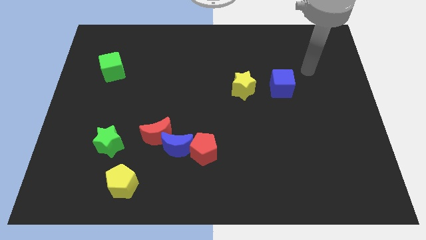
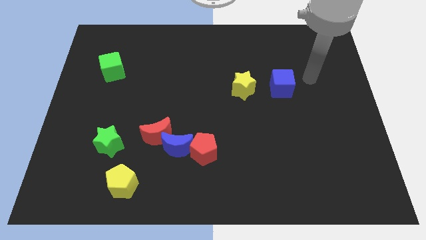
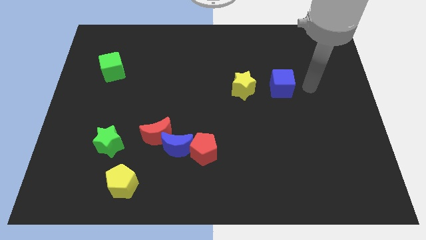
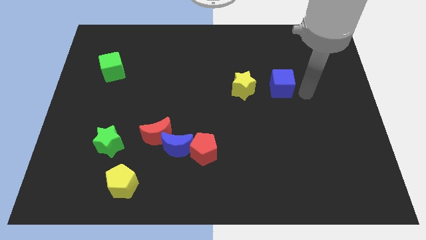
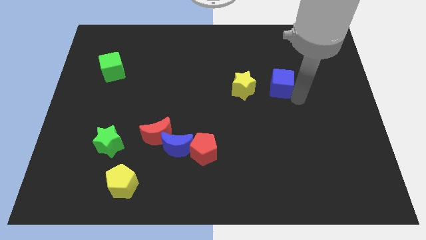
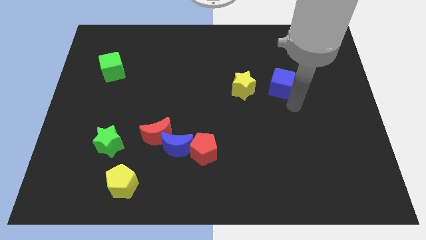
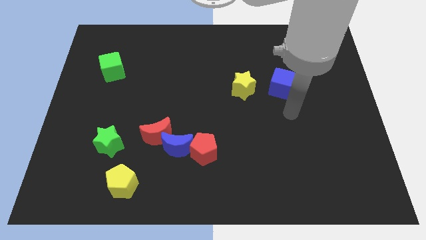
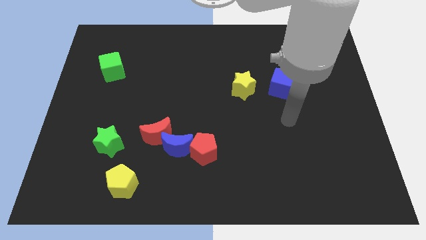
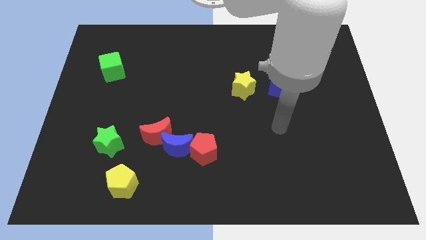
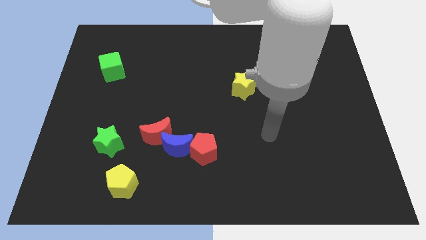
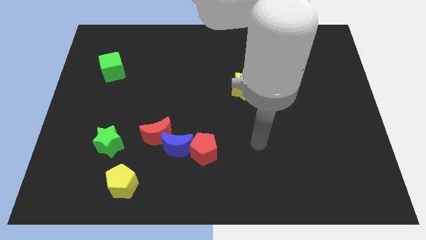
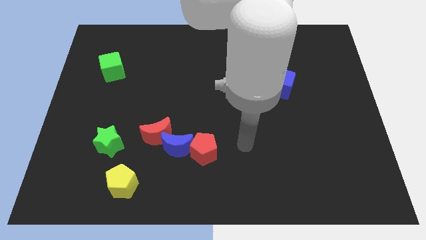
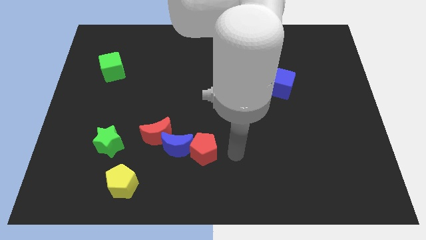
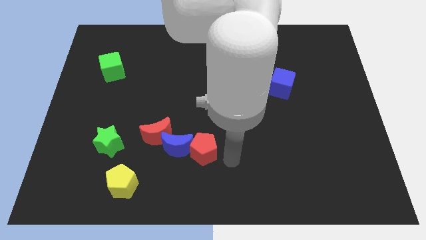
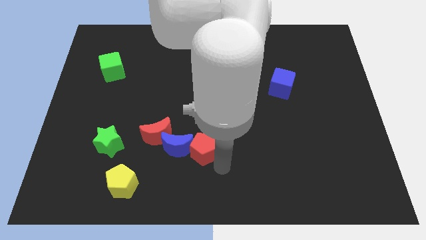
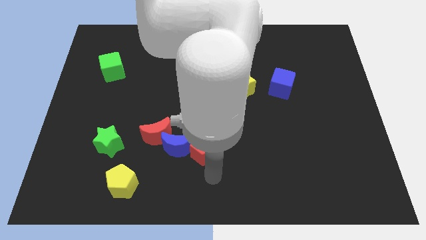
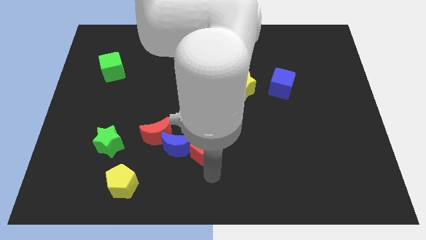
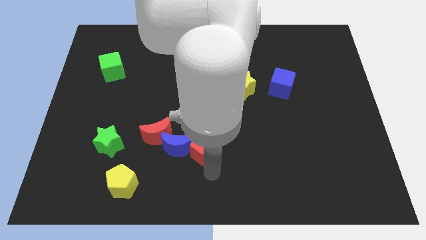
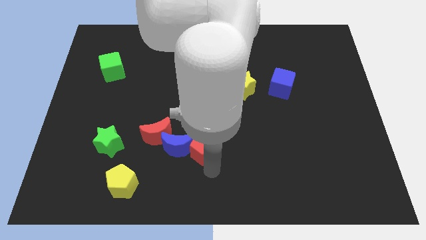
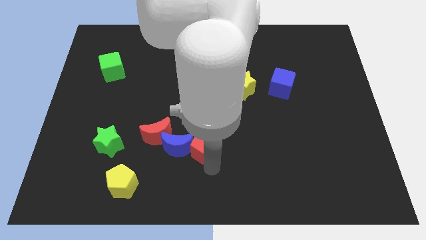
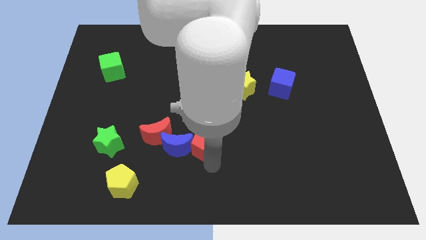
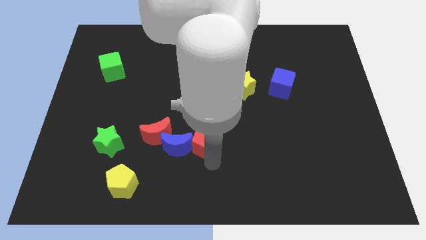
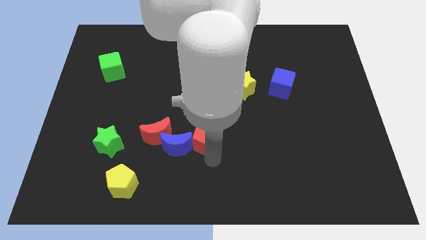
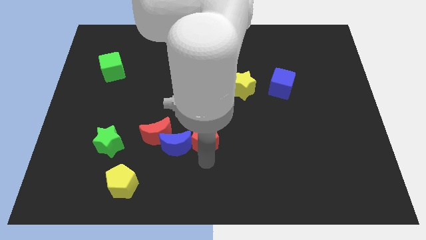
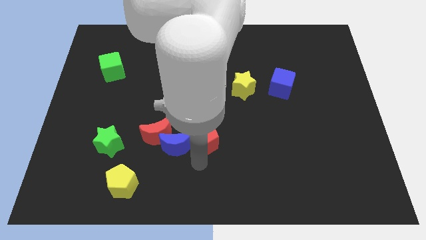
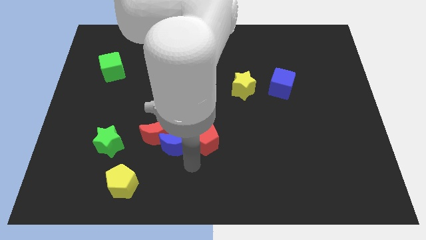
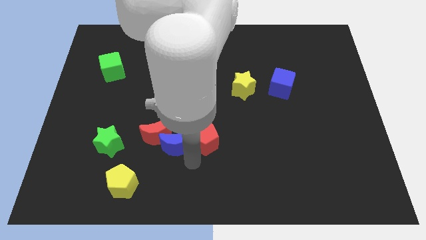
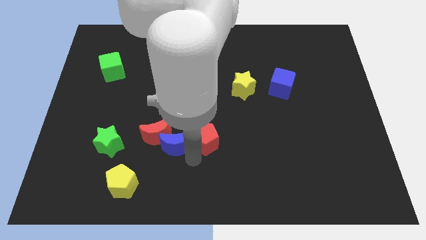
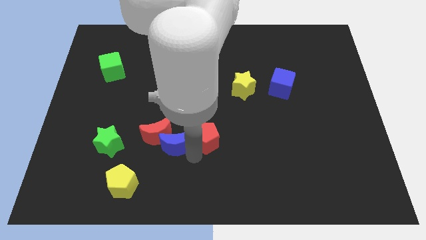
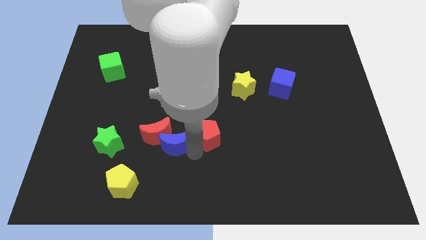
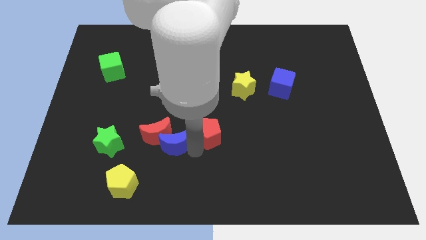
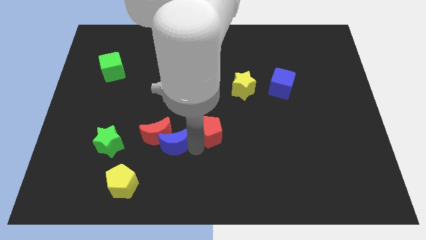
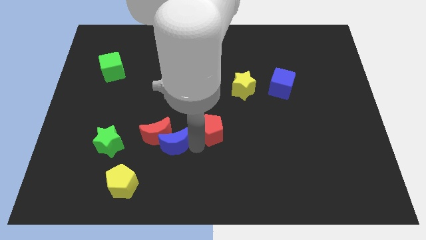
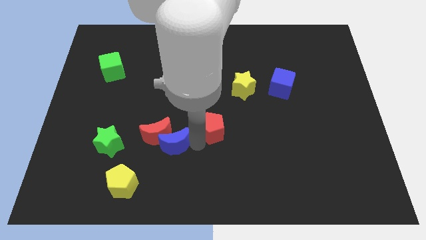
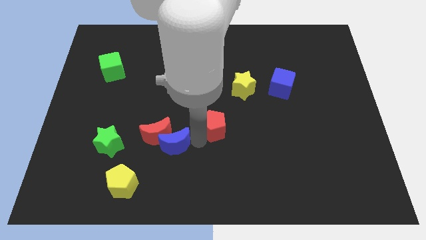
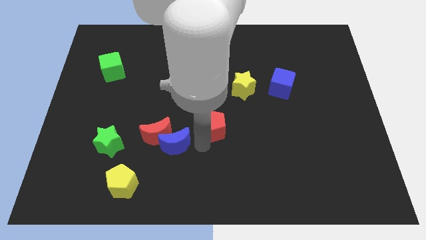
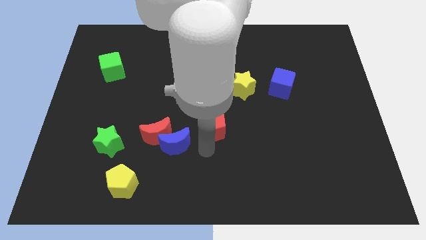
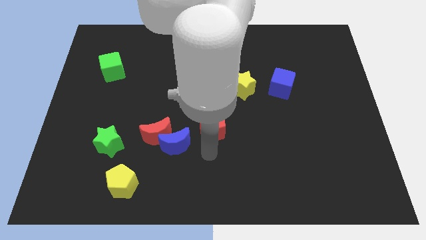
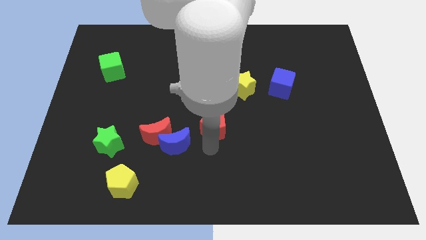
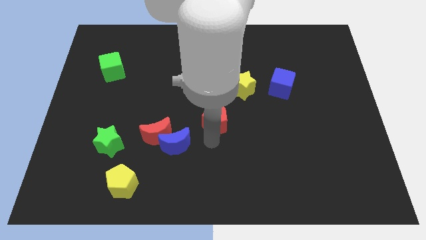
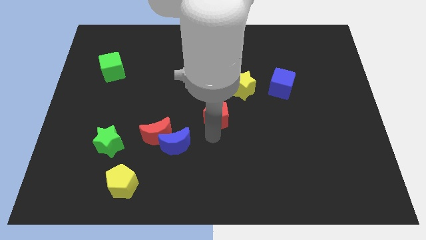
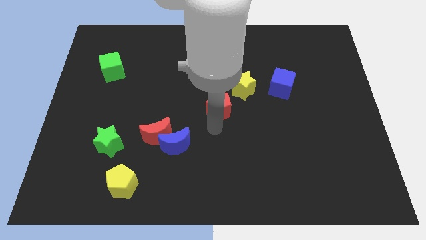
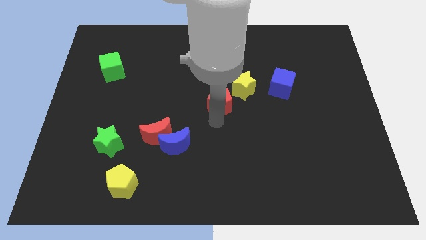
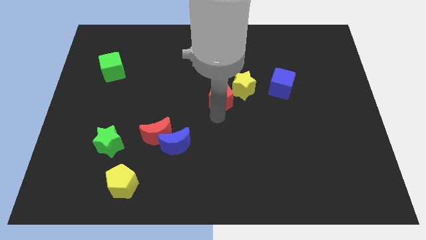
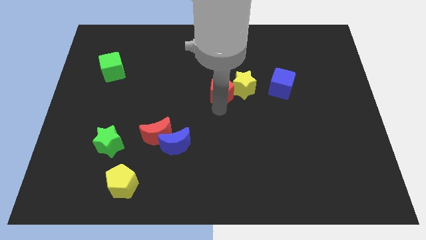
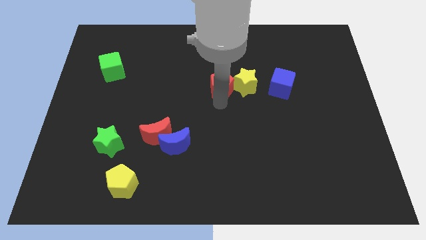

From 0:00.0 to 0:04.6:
push the red pentagon diagonally up and to the left of the yellow star

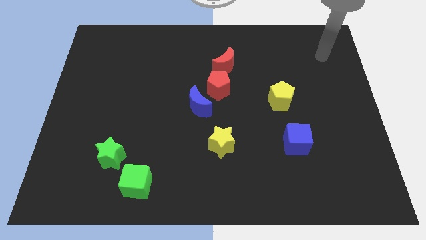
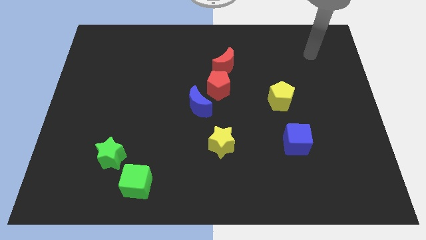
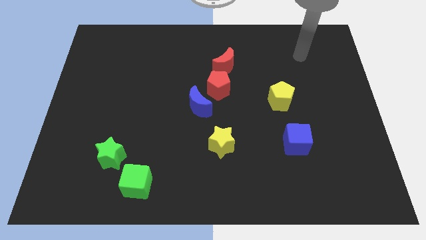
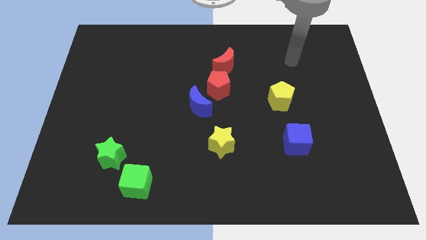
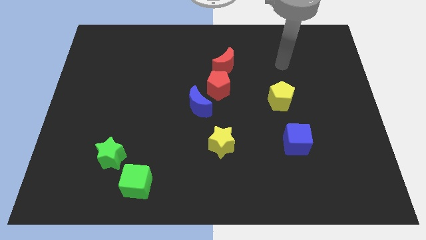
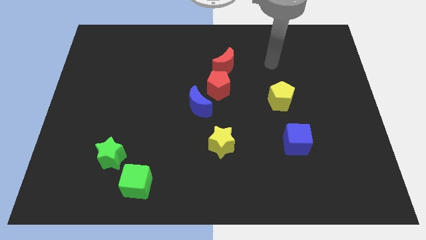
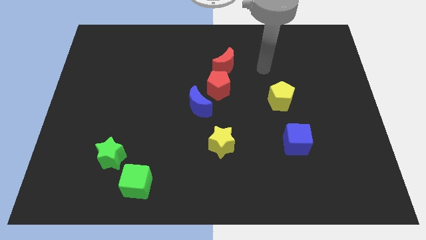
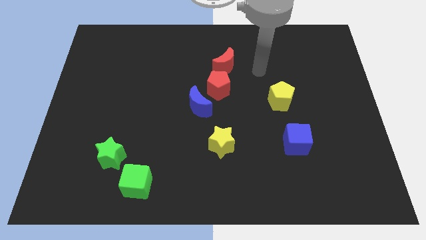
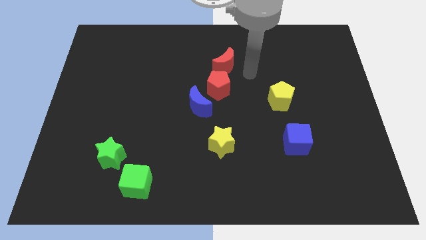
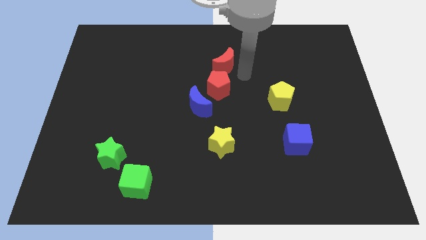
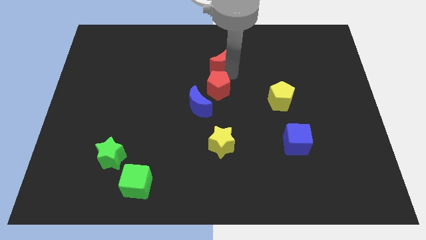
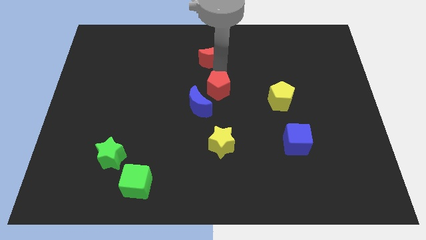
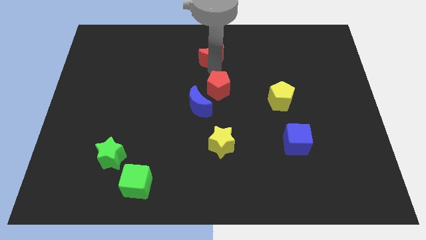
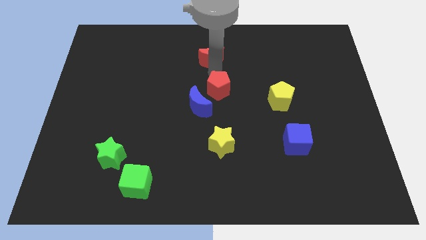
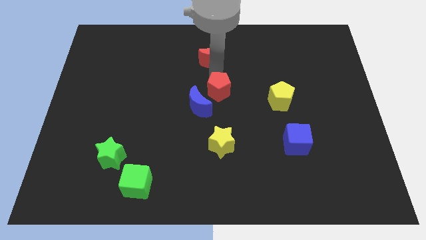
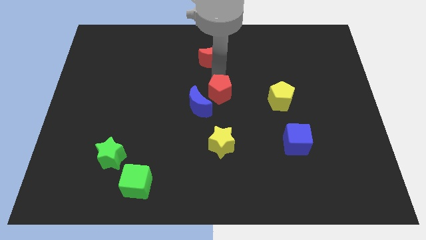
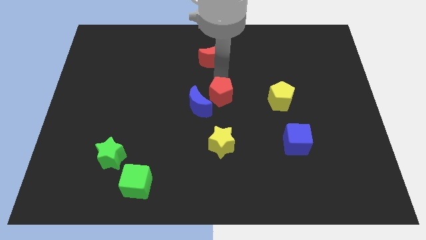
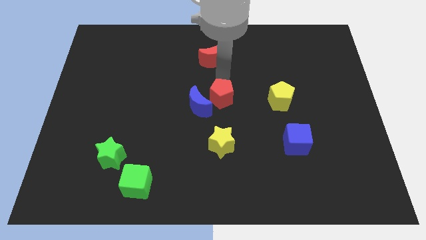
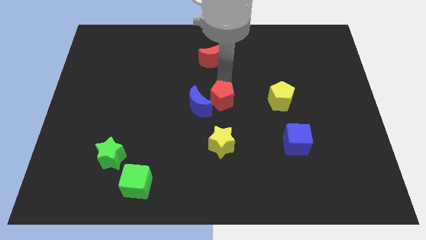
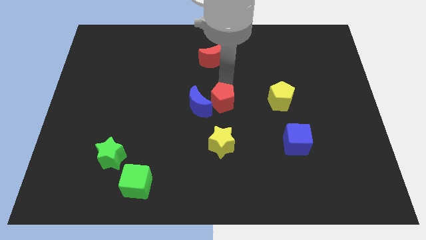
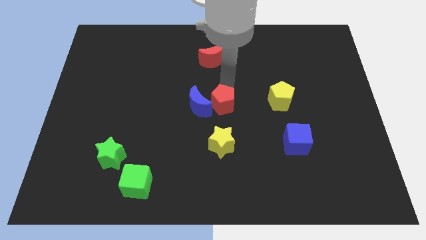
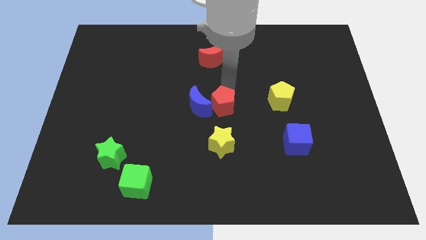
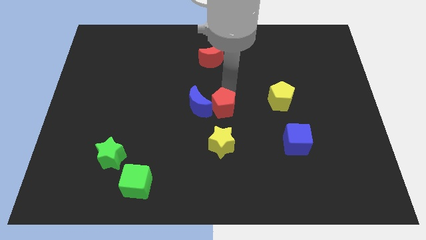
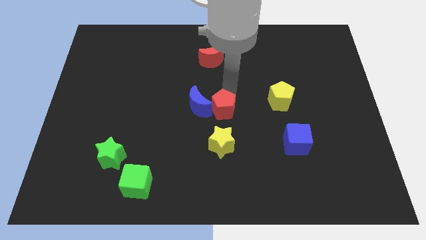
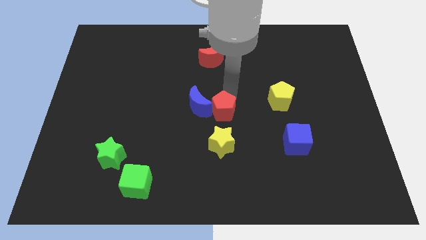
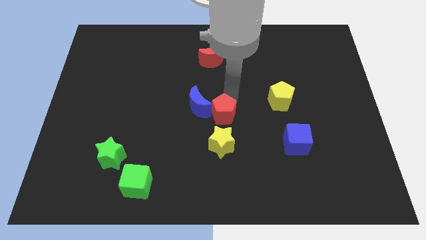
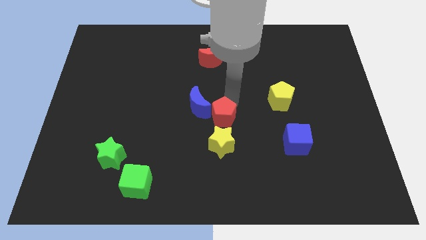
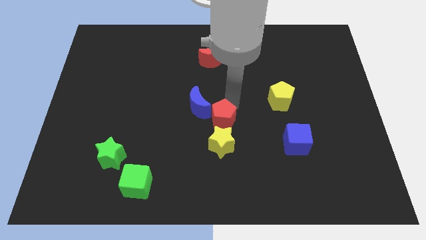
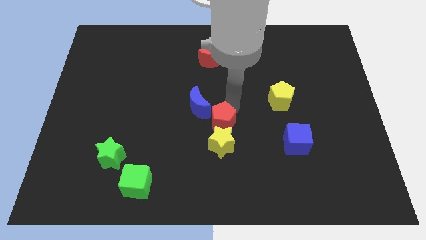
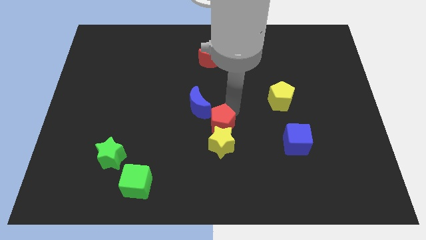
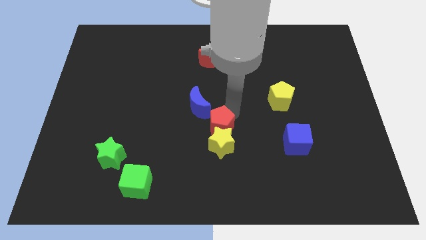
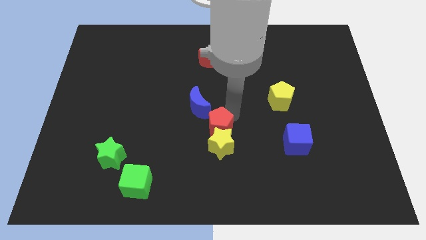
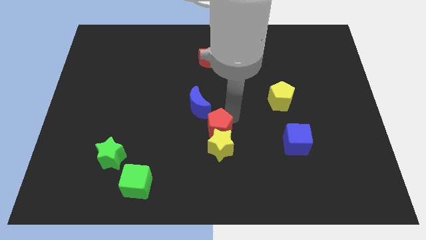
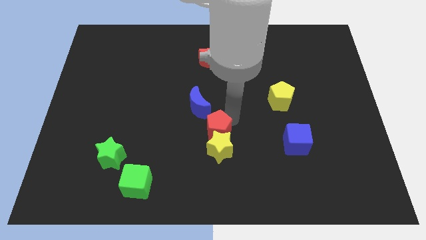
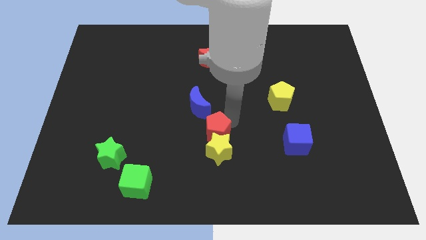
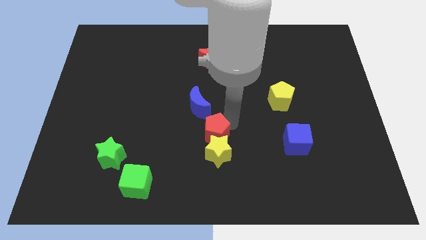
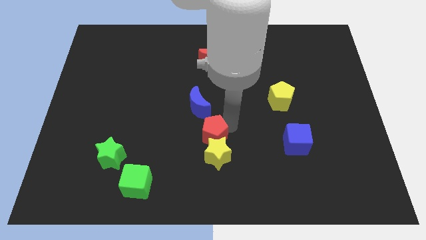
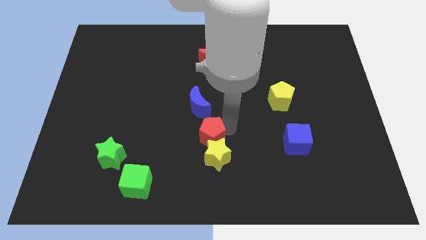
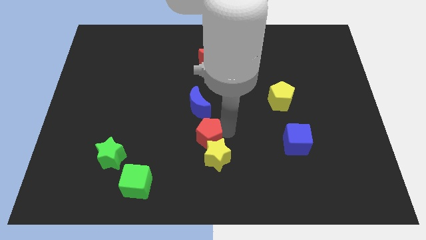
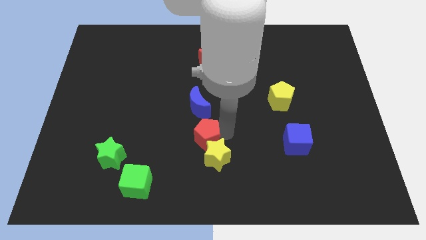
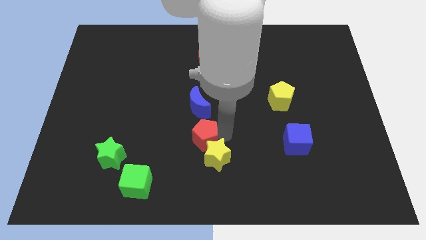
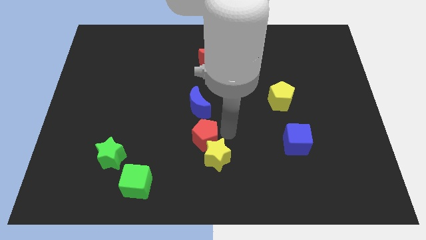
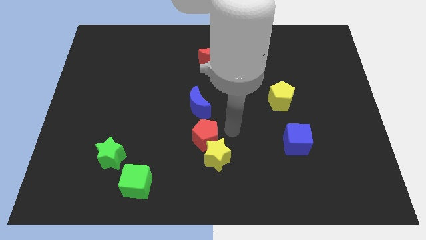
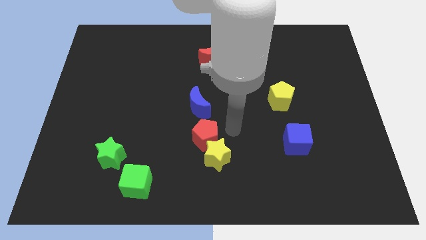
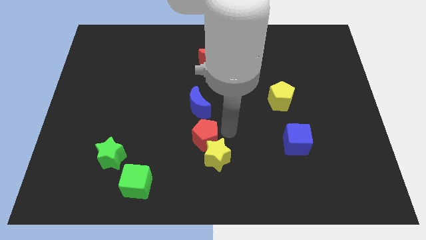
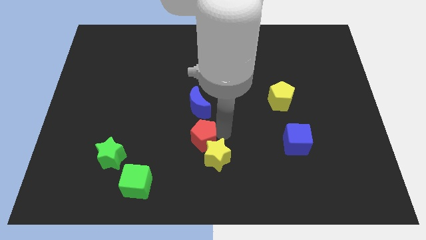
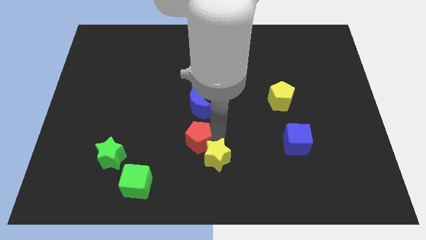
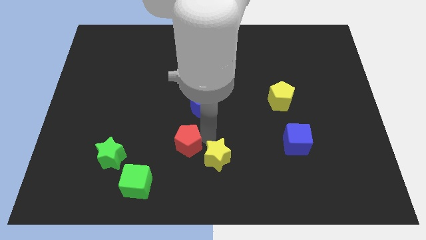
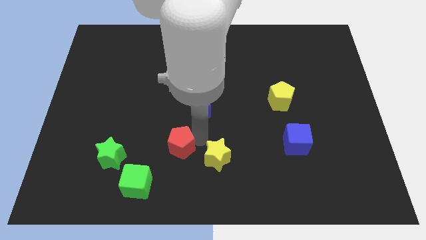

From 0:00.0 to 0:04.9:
move the red pentagon to the top right side of the green cube
